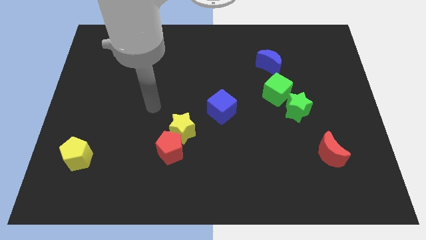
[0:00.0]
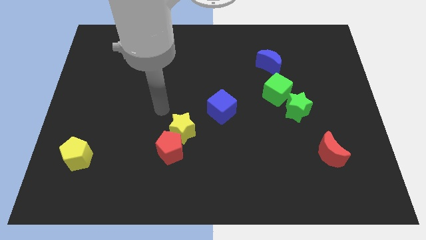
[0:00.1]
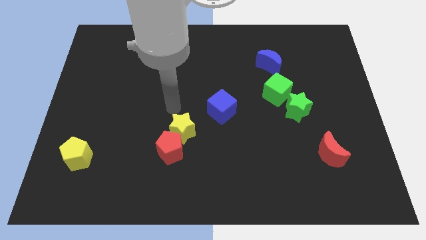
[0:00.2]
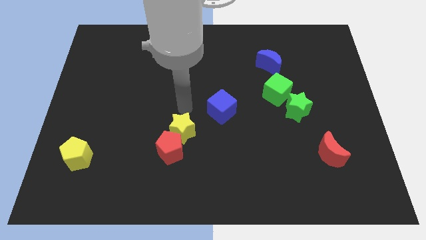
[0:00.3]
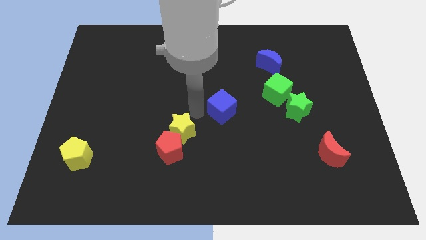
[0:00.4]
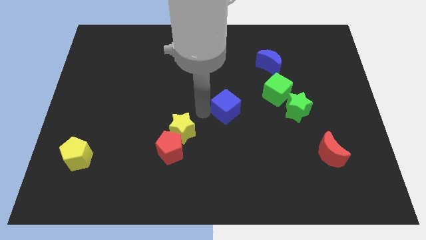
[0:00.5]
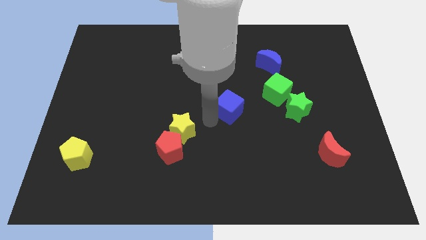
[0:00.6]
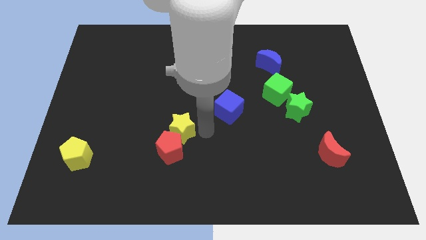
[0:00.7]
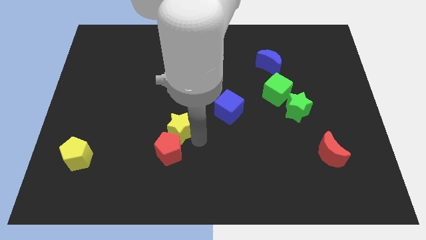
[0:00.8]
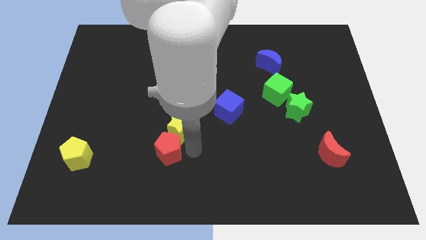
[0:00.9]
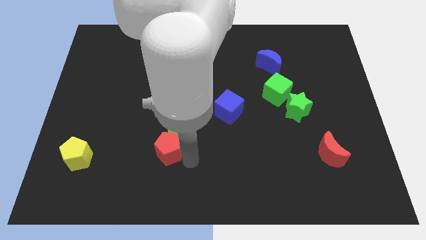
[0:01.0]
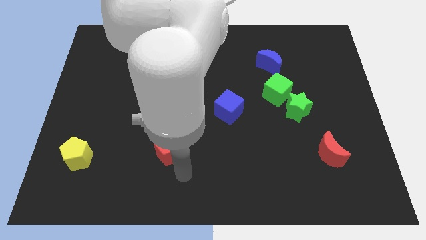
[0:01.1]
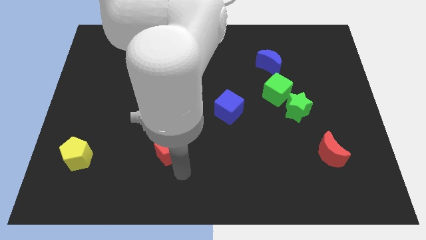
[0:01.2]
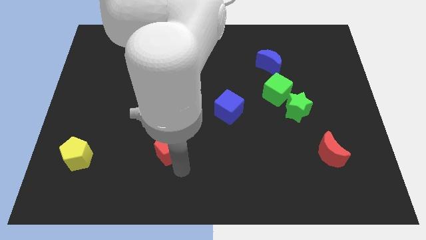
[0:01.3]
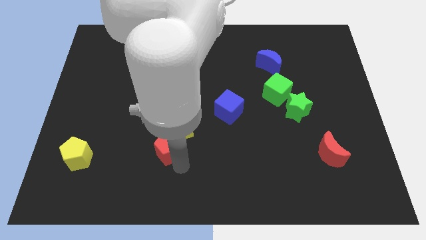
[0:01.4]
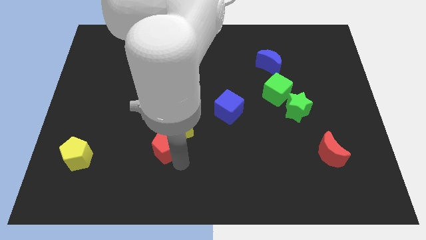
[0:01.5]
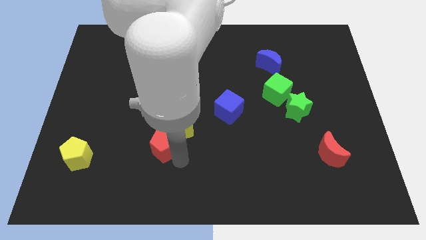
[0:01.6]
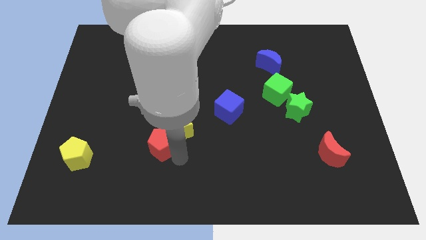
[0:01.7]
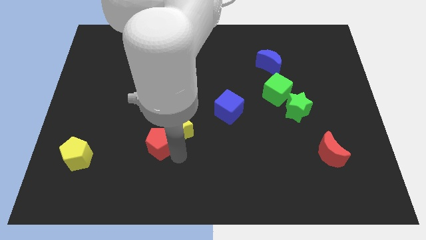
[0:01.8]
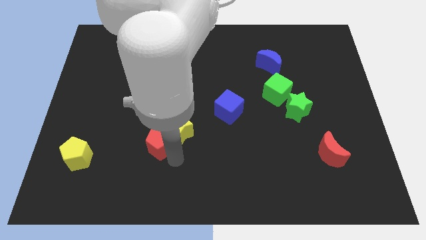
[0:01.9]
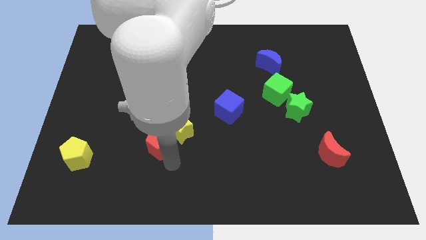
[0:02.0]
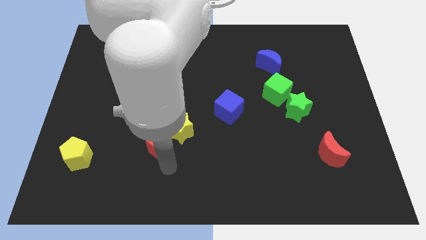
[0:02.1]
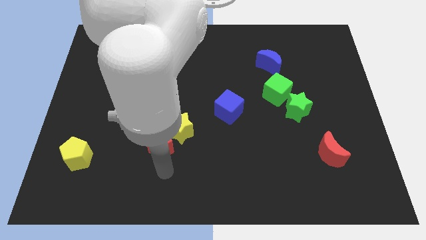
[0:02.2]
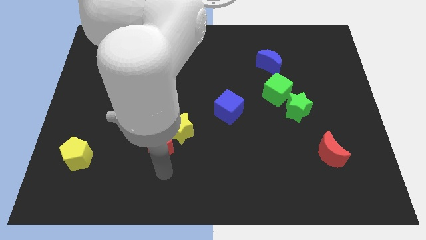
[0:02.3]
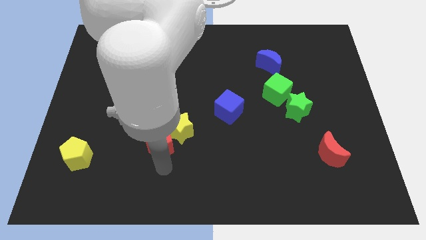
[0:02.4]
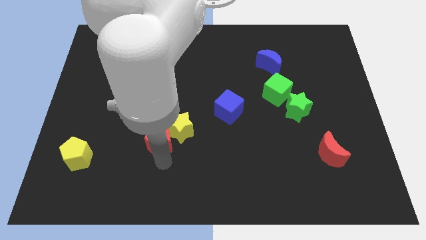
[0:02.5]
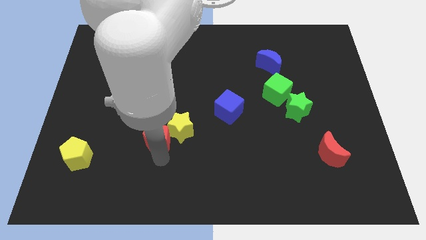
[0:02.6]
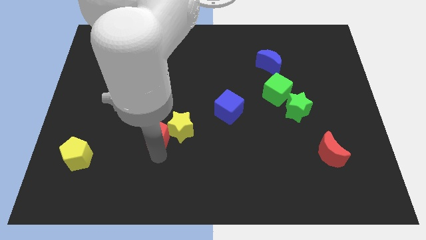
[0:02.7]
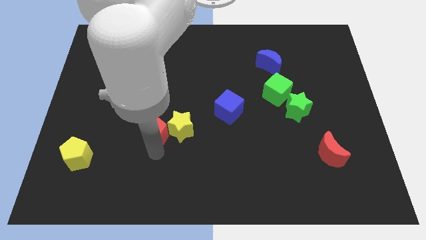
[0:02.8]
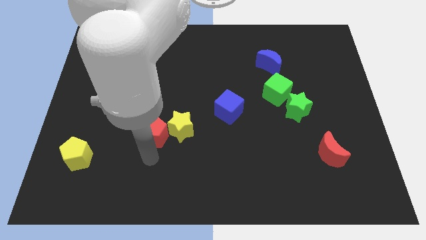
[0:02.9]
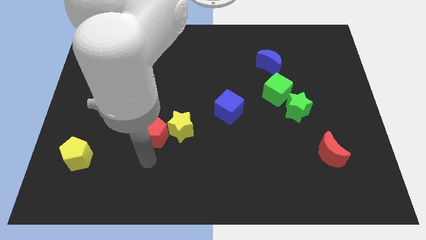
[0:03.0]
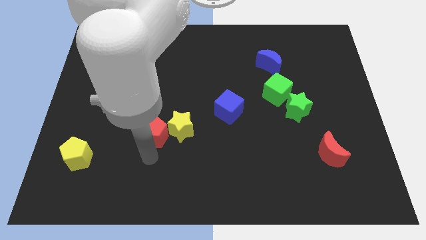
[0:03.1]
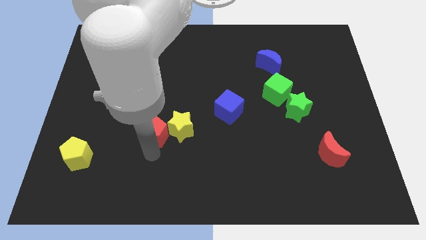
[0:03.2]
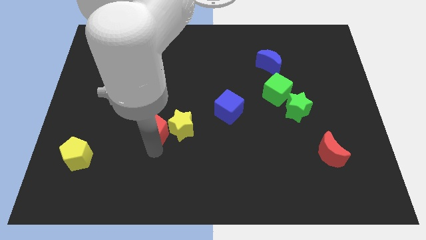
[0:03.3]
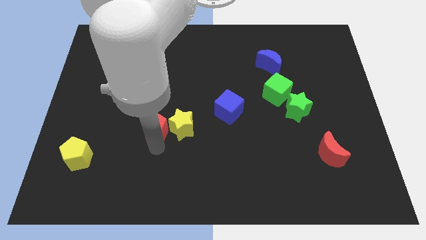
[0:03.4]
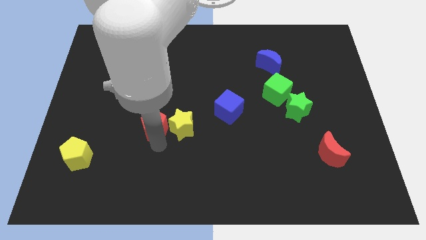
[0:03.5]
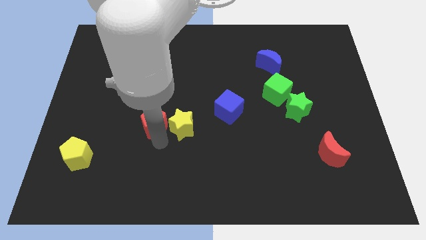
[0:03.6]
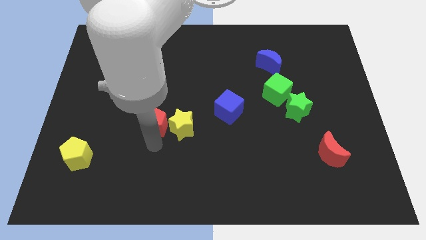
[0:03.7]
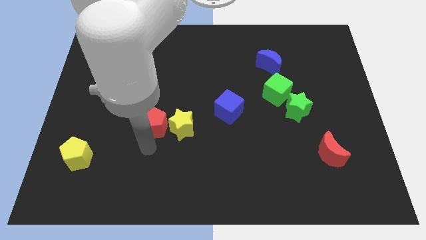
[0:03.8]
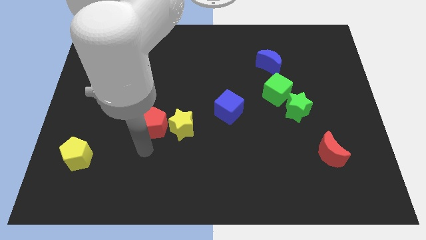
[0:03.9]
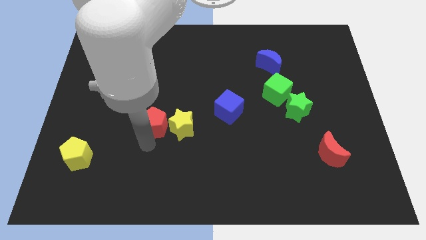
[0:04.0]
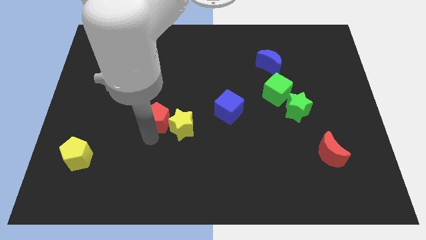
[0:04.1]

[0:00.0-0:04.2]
slide the red pentagon upwards a bit

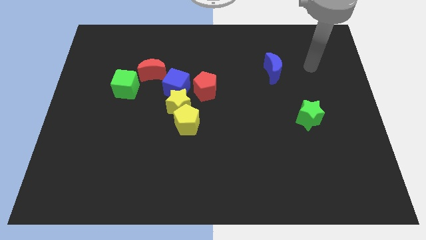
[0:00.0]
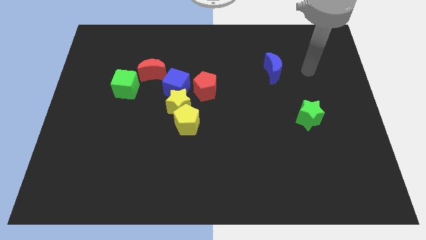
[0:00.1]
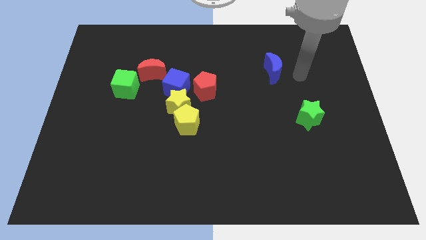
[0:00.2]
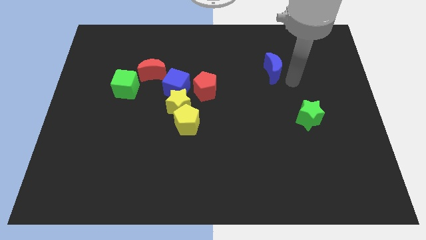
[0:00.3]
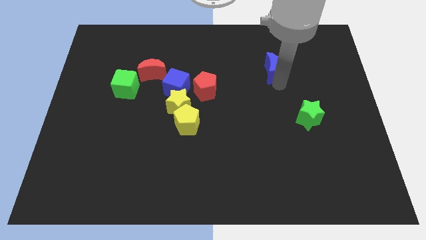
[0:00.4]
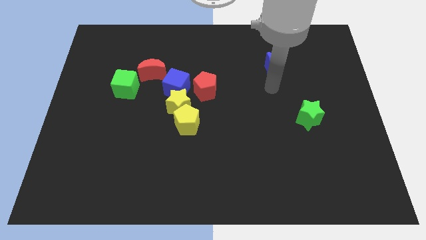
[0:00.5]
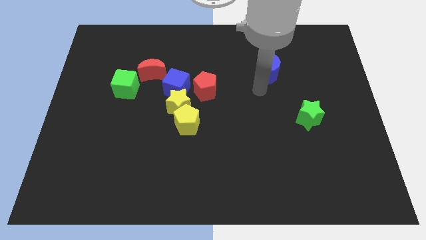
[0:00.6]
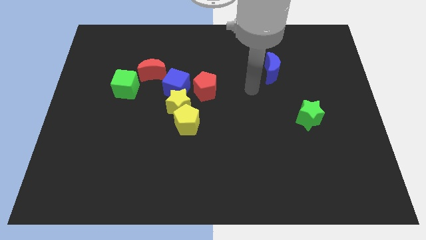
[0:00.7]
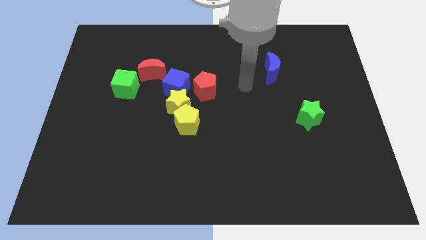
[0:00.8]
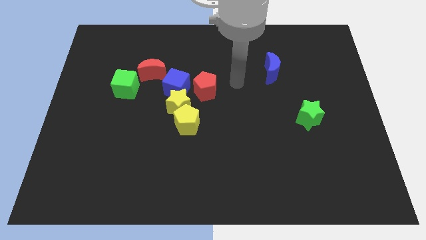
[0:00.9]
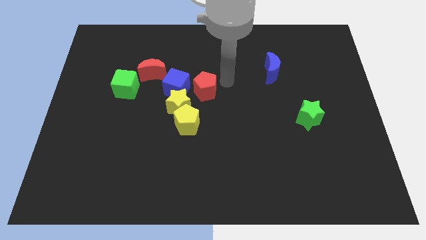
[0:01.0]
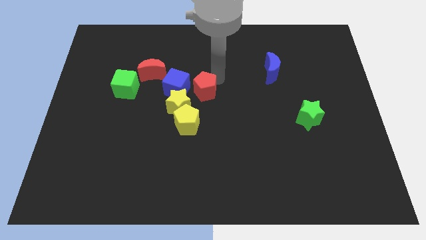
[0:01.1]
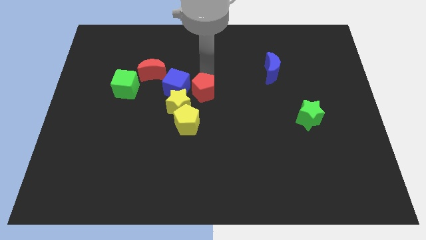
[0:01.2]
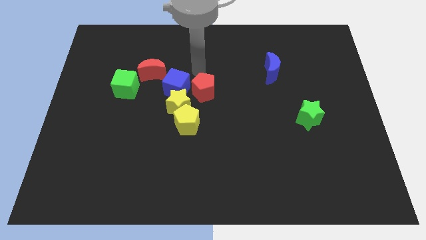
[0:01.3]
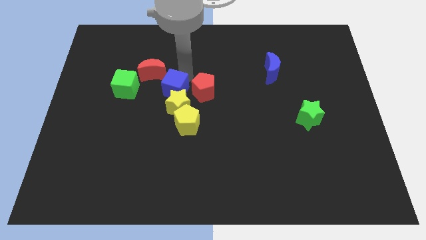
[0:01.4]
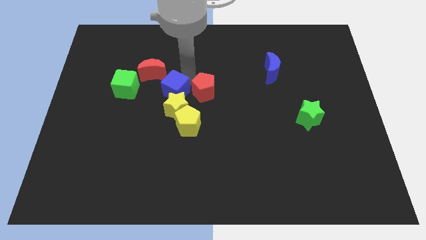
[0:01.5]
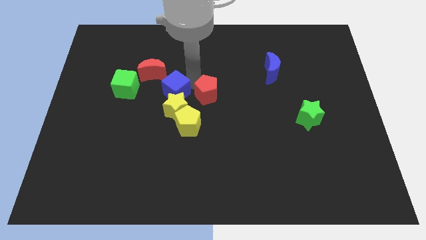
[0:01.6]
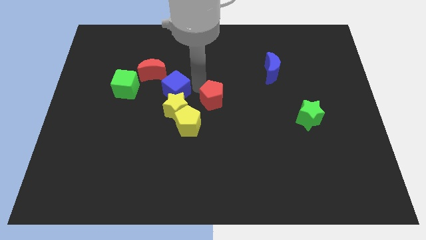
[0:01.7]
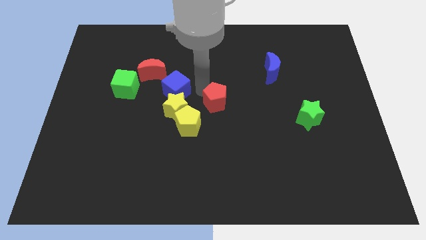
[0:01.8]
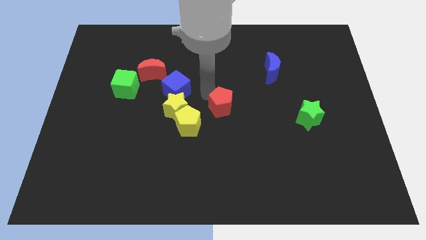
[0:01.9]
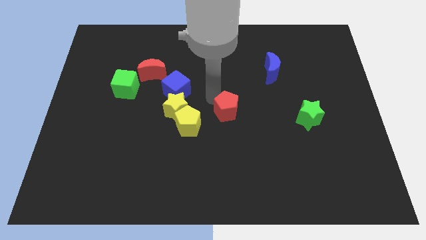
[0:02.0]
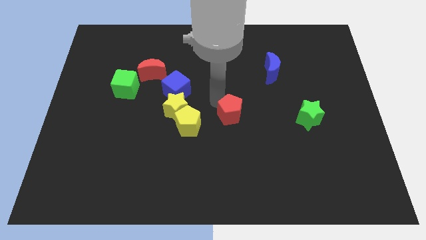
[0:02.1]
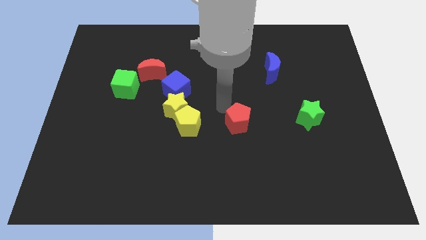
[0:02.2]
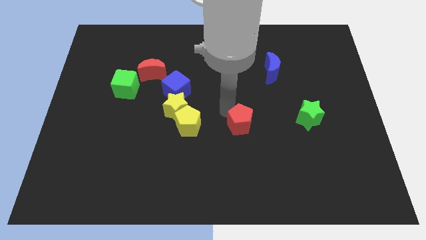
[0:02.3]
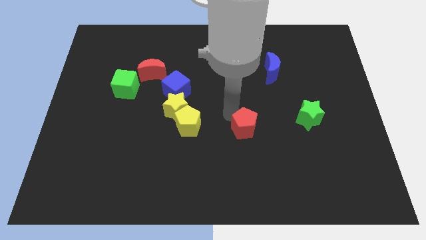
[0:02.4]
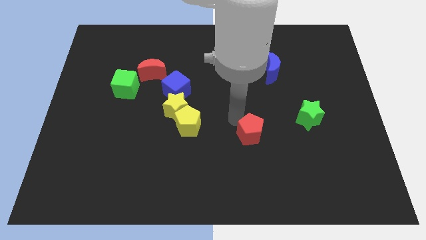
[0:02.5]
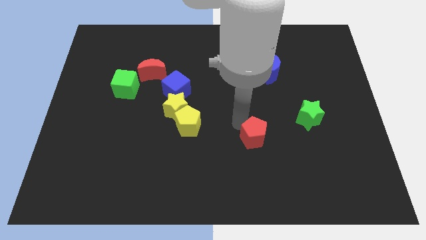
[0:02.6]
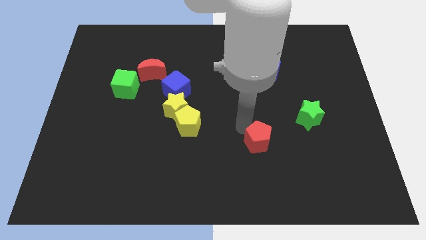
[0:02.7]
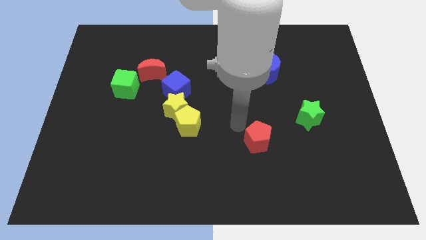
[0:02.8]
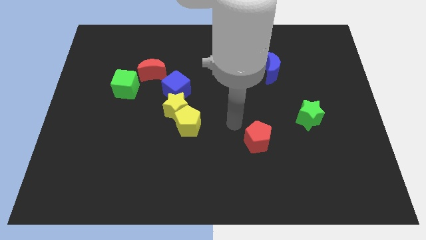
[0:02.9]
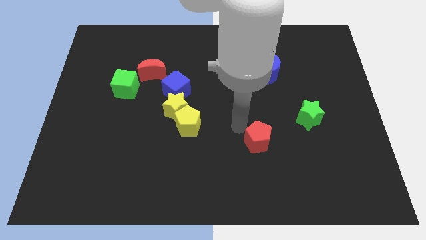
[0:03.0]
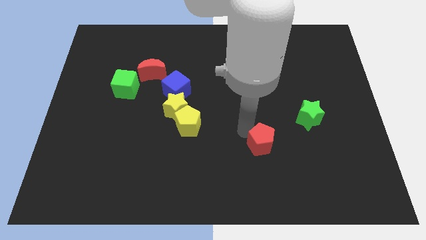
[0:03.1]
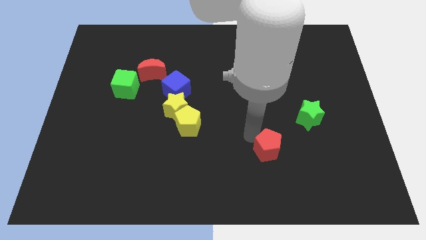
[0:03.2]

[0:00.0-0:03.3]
move the red pentagon diagonally down and to the right
